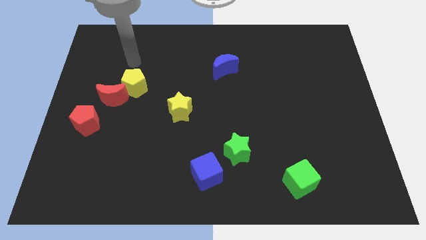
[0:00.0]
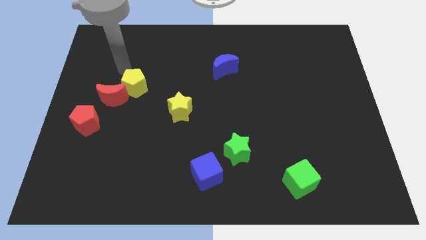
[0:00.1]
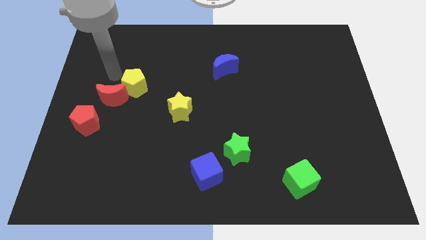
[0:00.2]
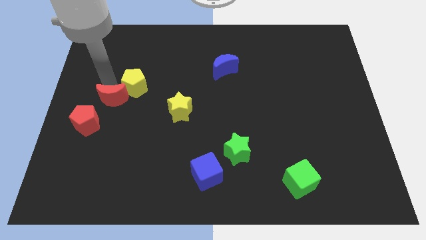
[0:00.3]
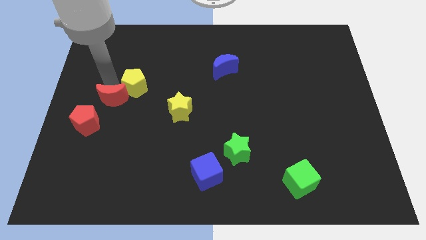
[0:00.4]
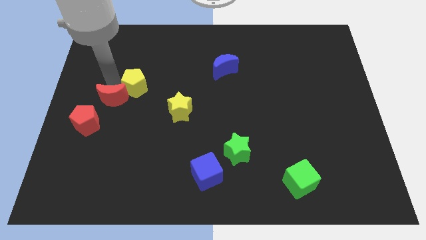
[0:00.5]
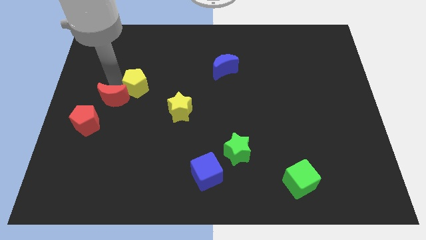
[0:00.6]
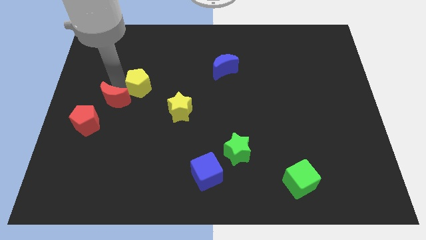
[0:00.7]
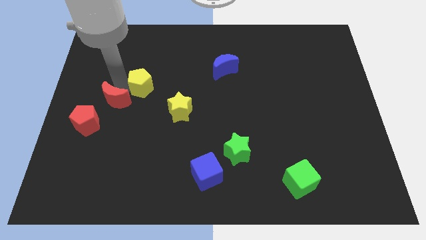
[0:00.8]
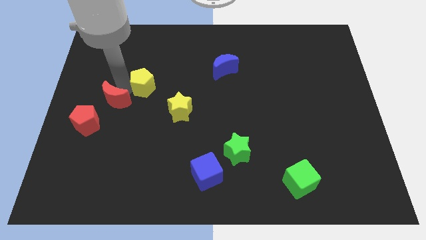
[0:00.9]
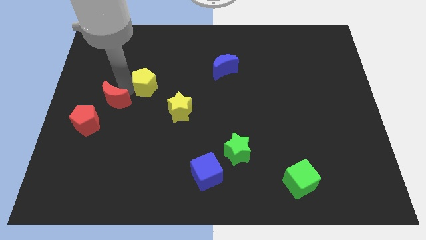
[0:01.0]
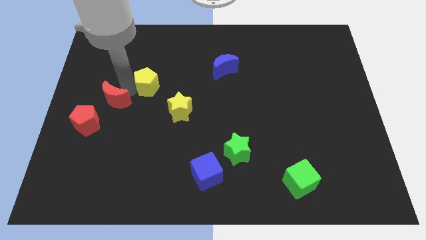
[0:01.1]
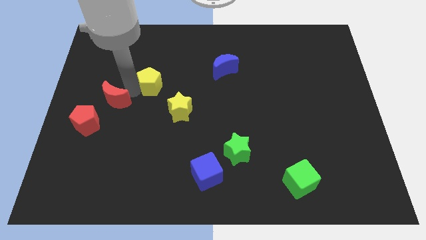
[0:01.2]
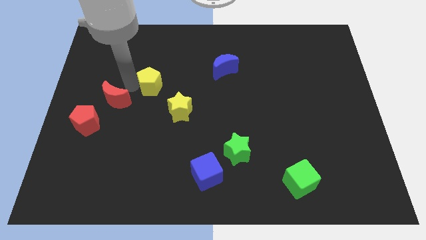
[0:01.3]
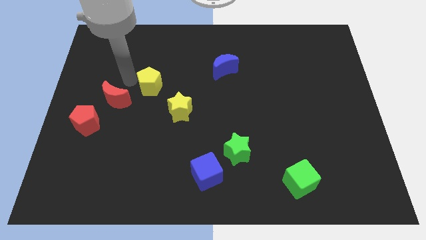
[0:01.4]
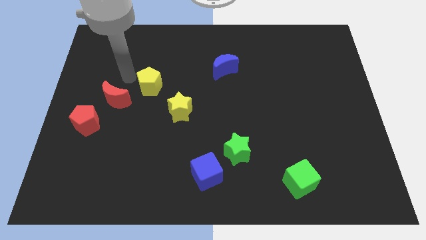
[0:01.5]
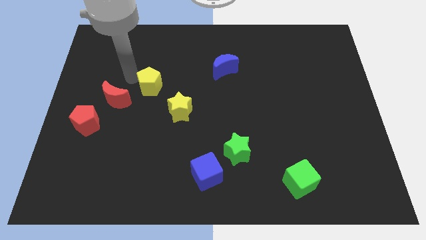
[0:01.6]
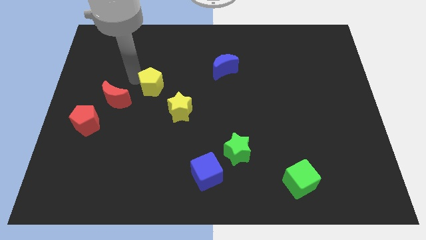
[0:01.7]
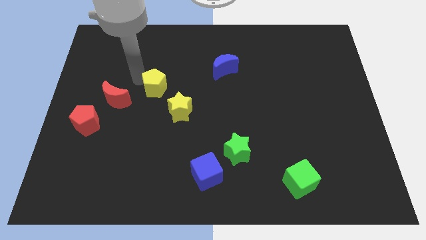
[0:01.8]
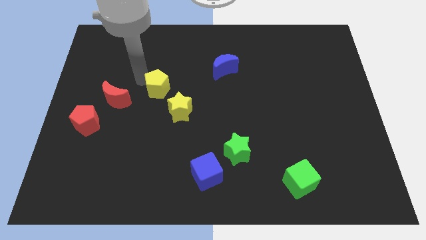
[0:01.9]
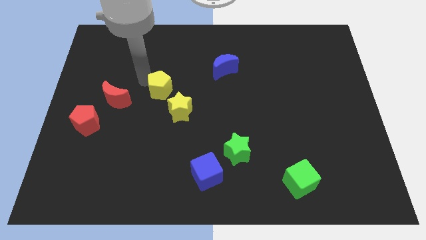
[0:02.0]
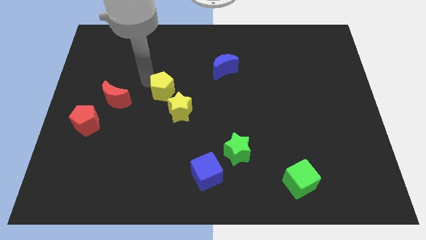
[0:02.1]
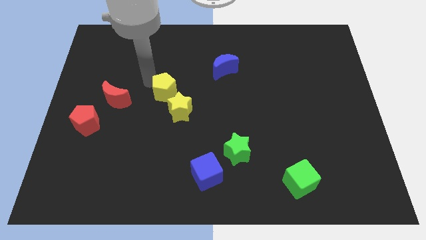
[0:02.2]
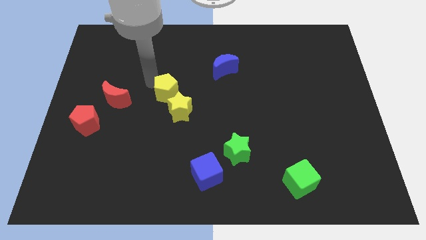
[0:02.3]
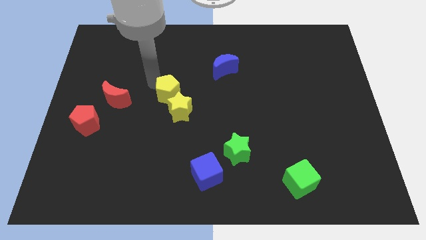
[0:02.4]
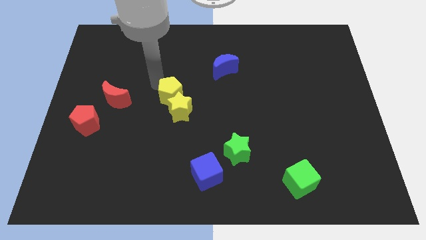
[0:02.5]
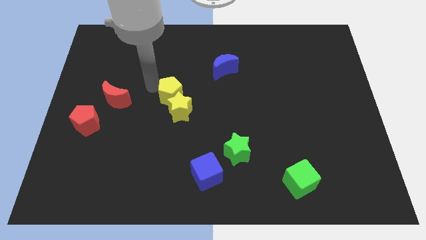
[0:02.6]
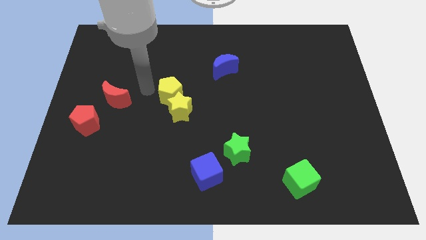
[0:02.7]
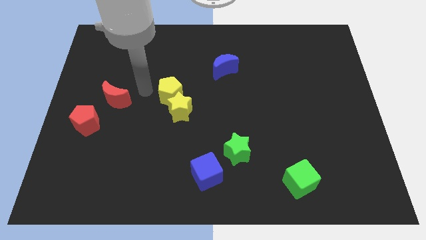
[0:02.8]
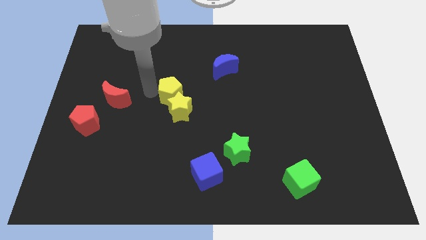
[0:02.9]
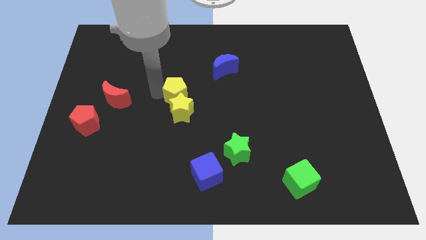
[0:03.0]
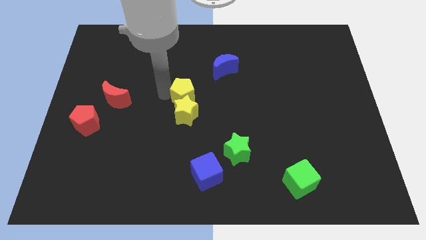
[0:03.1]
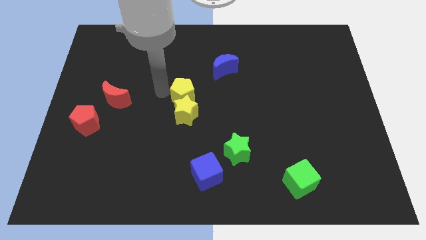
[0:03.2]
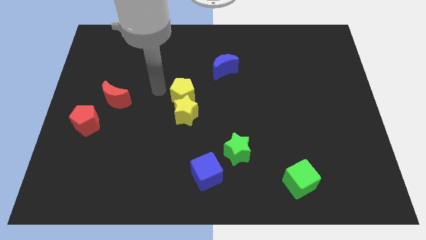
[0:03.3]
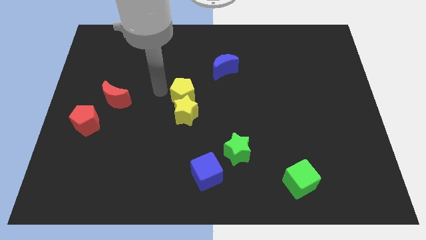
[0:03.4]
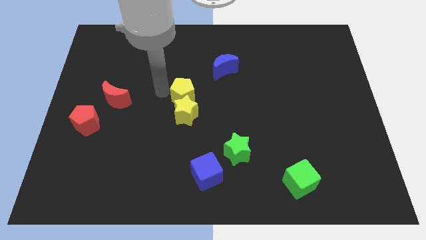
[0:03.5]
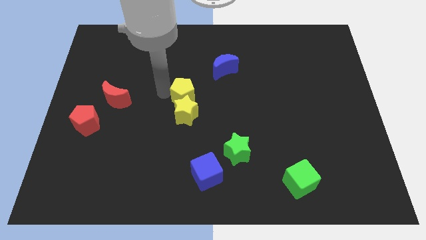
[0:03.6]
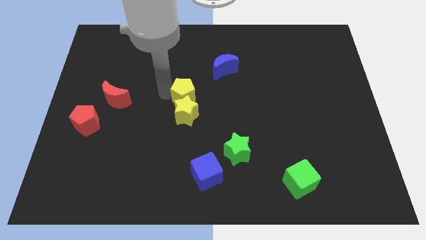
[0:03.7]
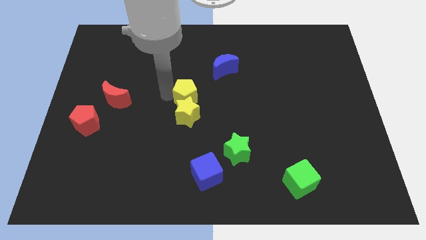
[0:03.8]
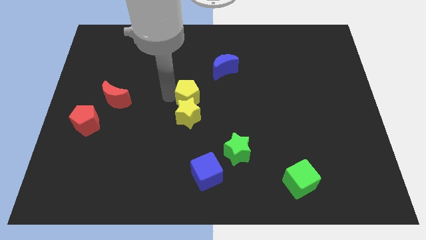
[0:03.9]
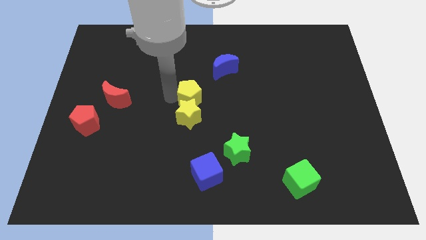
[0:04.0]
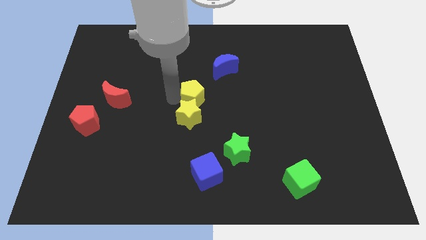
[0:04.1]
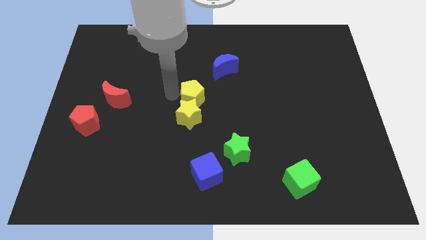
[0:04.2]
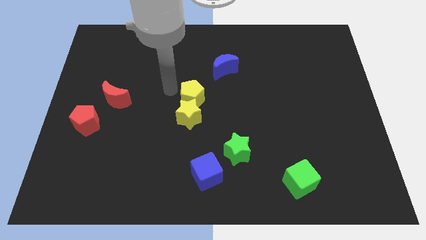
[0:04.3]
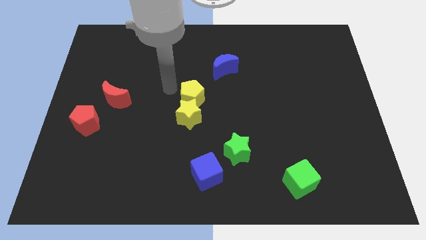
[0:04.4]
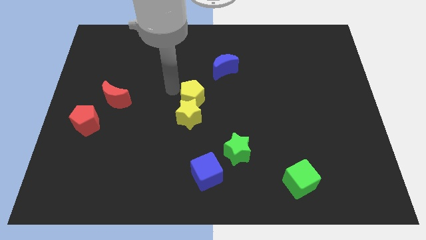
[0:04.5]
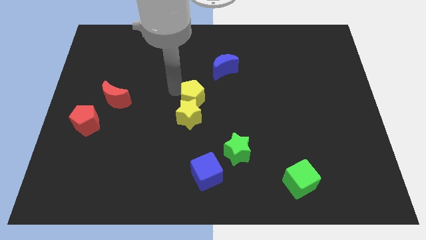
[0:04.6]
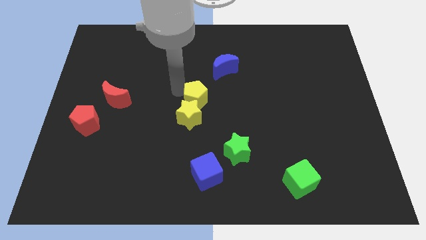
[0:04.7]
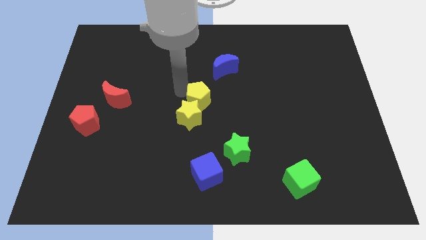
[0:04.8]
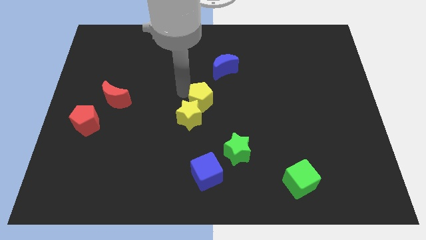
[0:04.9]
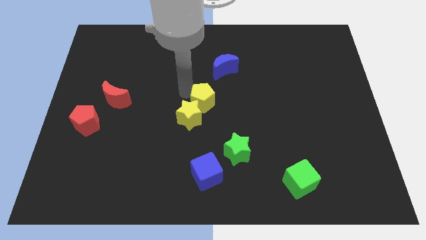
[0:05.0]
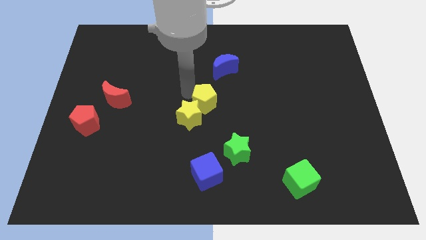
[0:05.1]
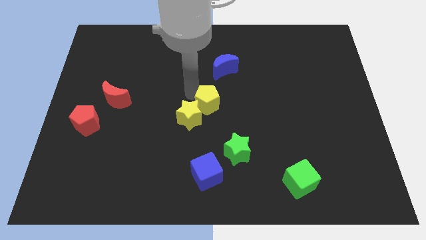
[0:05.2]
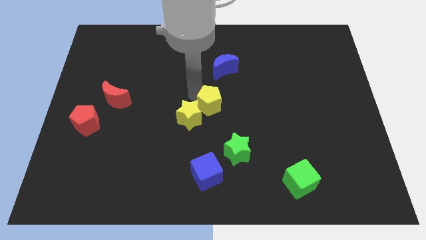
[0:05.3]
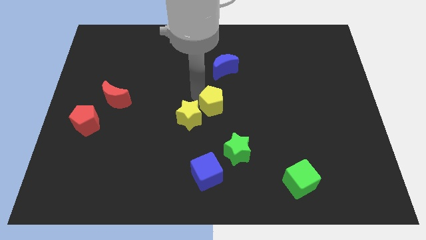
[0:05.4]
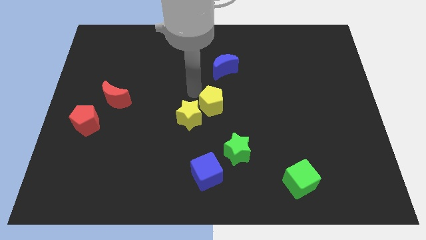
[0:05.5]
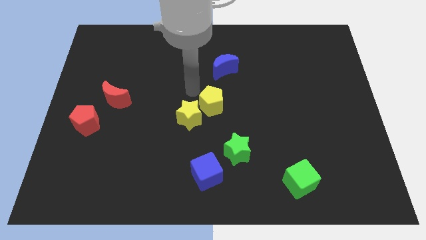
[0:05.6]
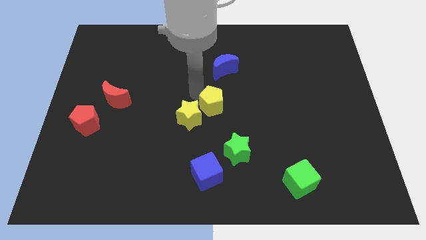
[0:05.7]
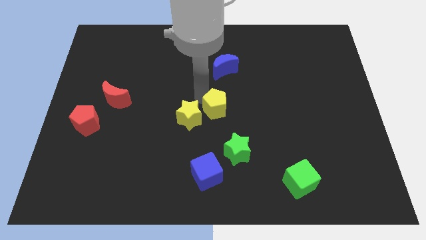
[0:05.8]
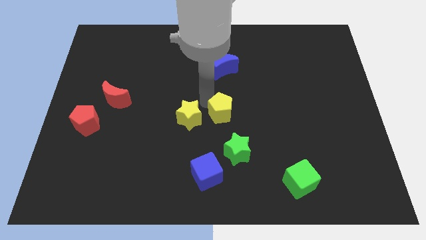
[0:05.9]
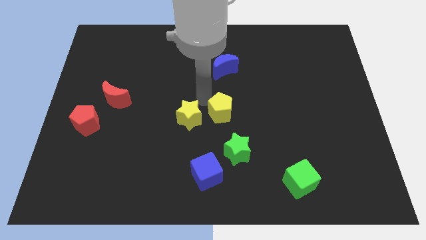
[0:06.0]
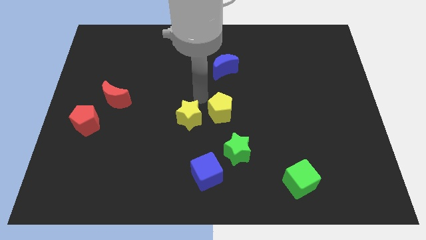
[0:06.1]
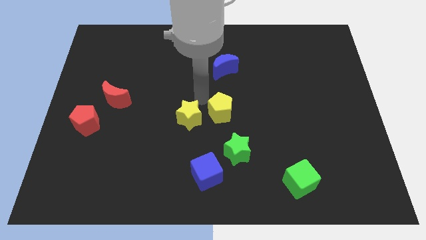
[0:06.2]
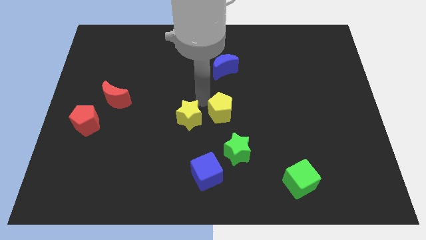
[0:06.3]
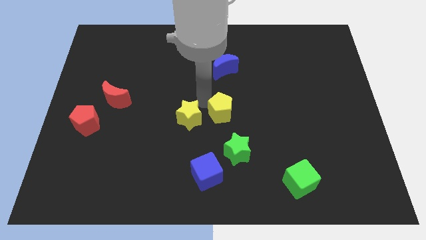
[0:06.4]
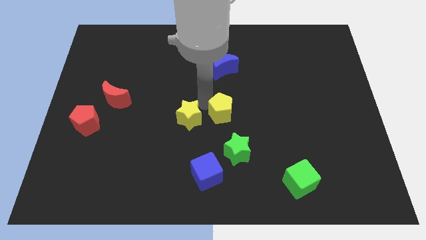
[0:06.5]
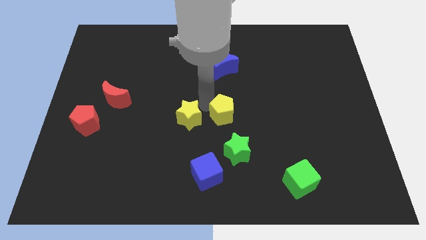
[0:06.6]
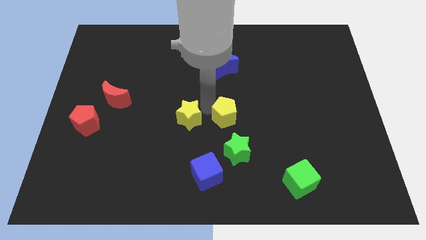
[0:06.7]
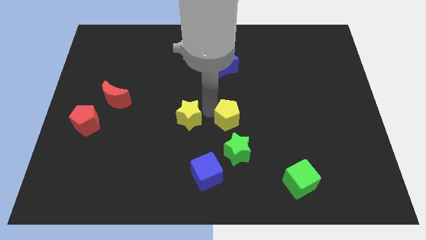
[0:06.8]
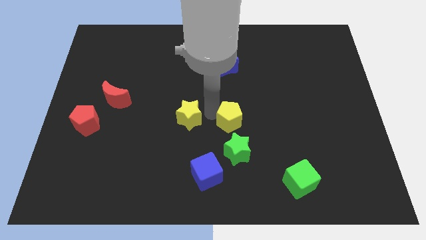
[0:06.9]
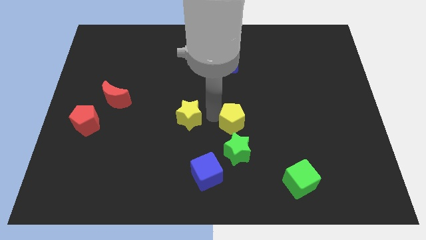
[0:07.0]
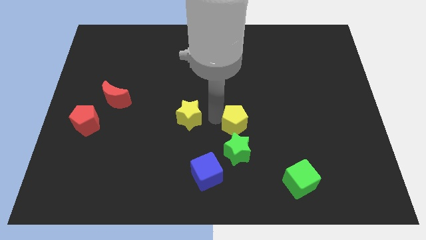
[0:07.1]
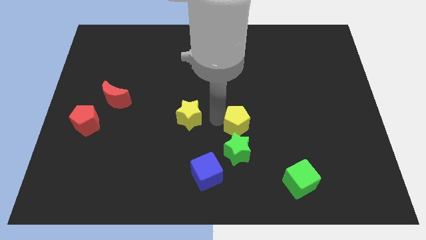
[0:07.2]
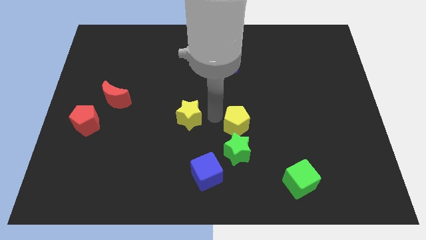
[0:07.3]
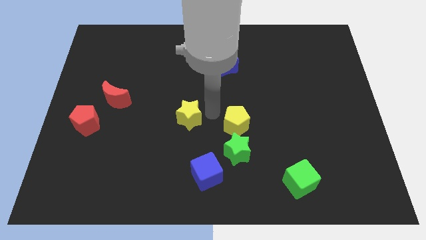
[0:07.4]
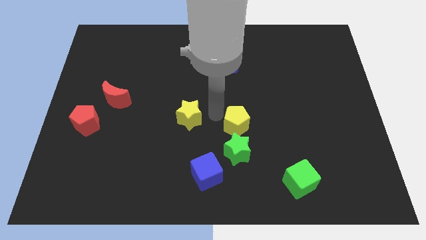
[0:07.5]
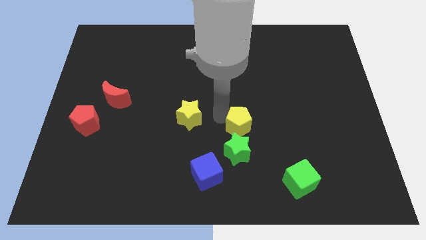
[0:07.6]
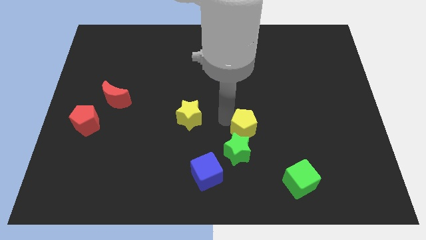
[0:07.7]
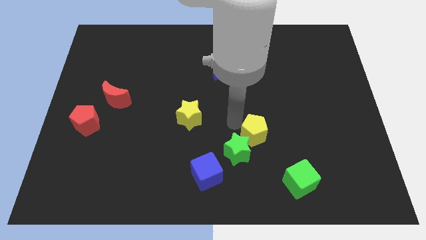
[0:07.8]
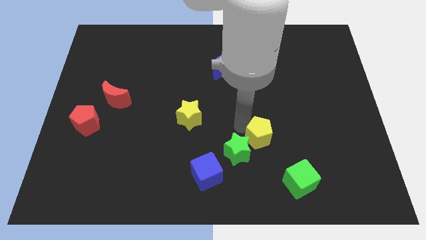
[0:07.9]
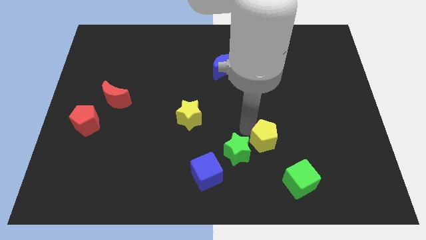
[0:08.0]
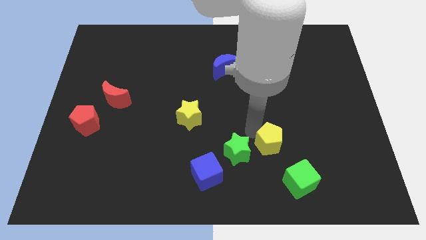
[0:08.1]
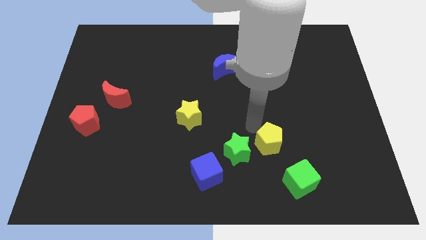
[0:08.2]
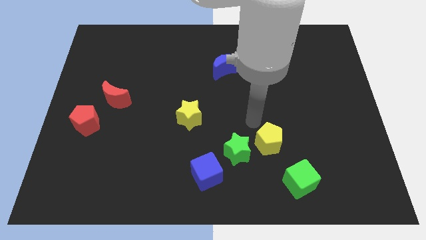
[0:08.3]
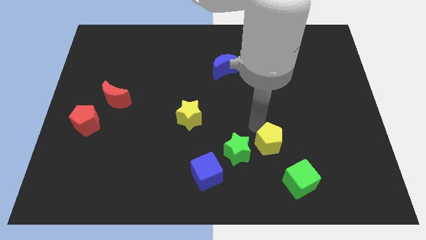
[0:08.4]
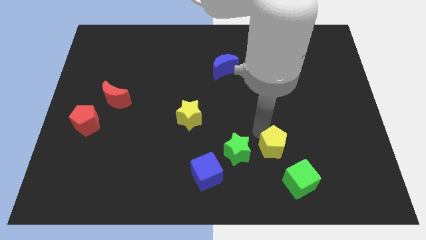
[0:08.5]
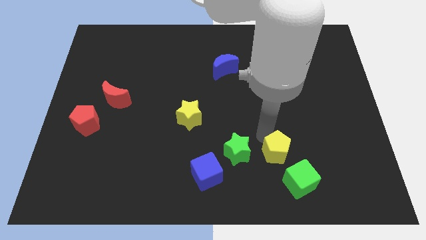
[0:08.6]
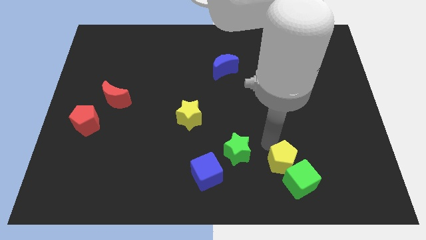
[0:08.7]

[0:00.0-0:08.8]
move the yellow pentagon next to the green cube
